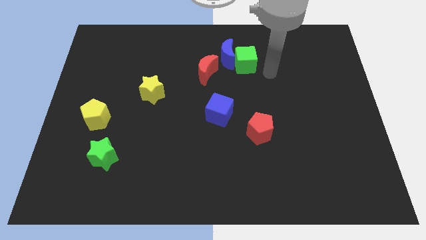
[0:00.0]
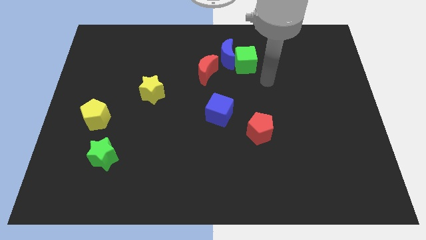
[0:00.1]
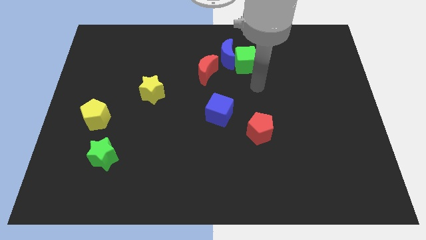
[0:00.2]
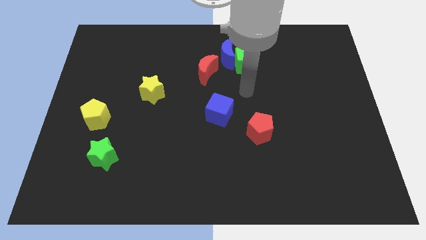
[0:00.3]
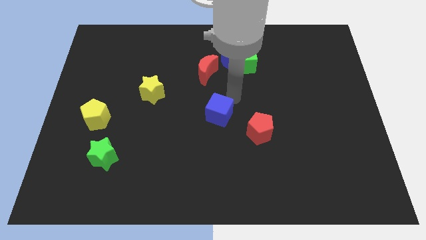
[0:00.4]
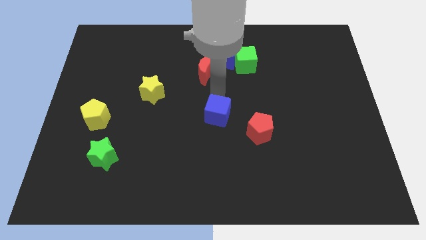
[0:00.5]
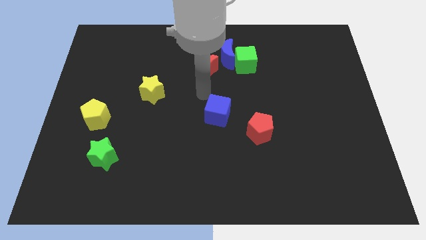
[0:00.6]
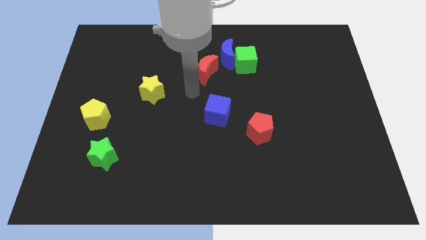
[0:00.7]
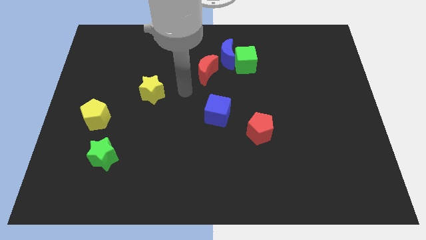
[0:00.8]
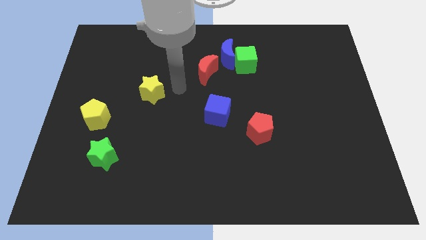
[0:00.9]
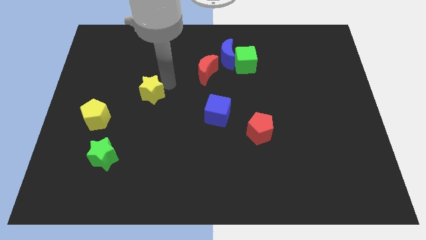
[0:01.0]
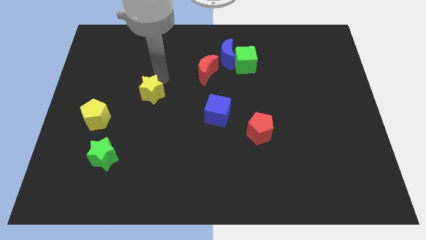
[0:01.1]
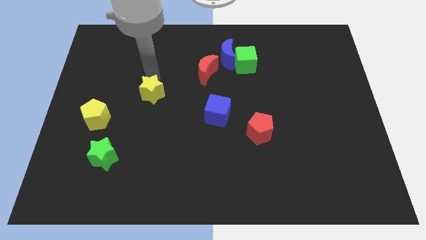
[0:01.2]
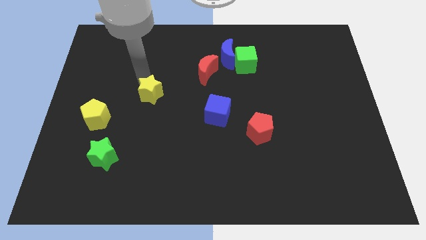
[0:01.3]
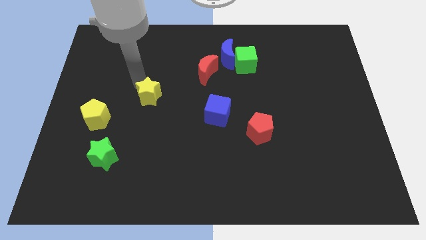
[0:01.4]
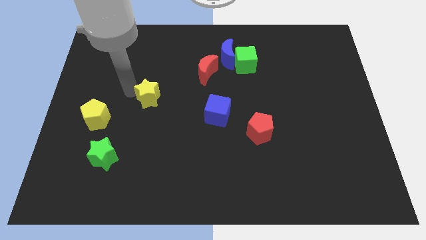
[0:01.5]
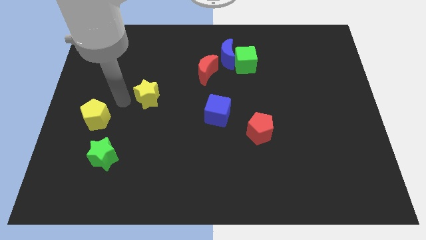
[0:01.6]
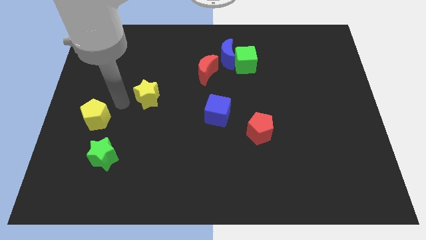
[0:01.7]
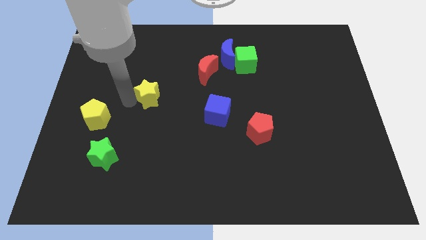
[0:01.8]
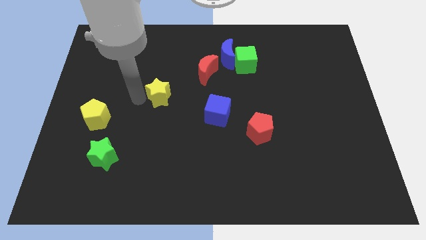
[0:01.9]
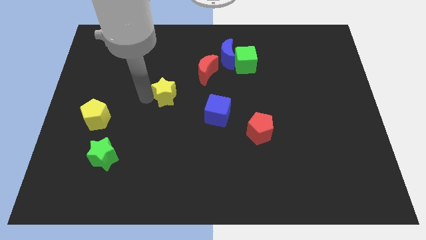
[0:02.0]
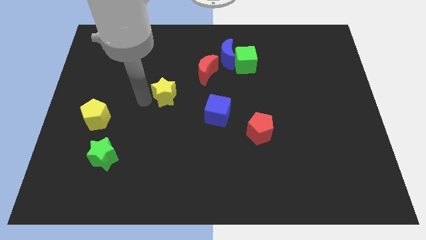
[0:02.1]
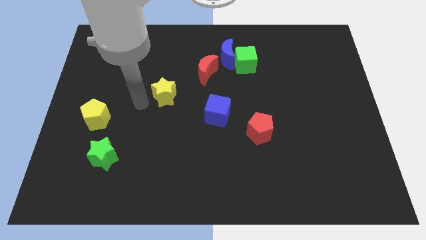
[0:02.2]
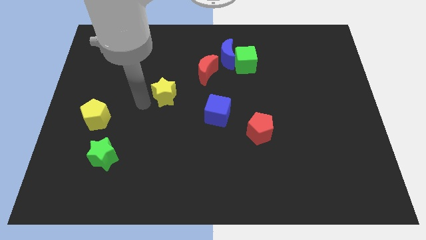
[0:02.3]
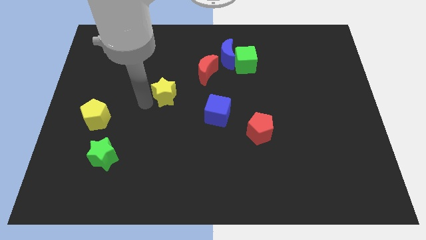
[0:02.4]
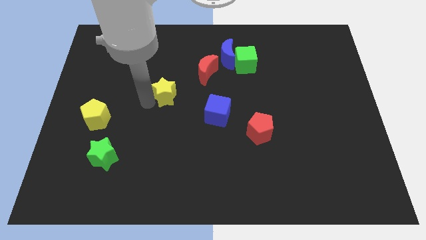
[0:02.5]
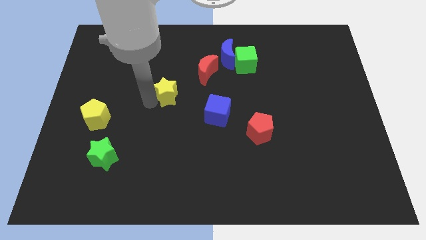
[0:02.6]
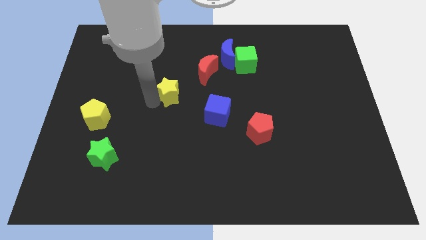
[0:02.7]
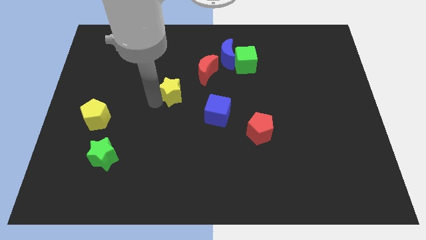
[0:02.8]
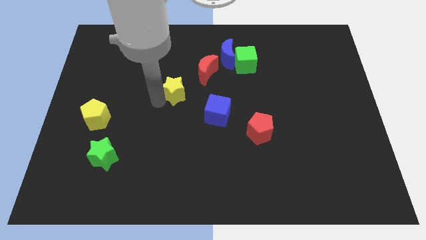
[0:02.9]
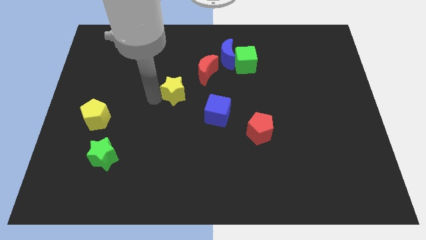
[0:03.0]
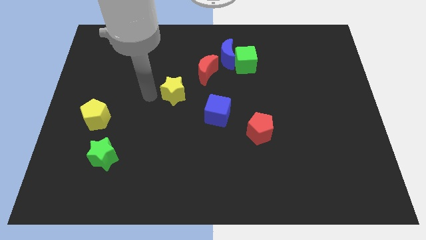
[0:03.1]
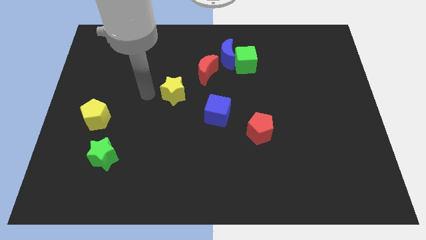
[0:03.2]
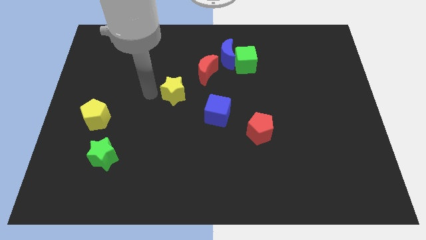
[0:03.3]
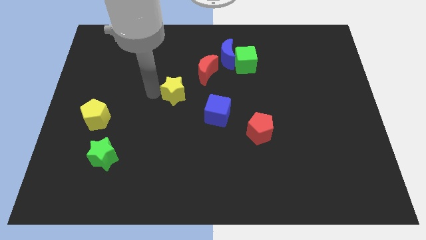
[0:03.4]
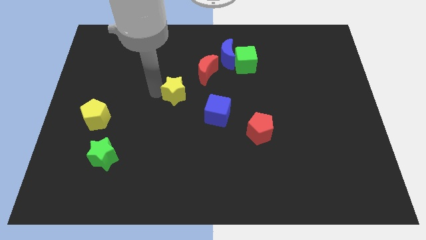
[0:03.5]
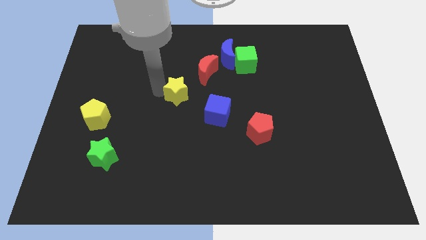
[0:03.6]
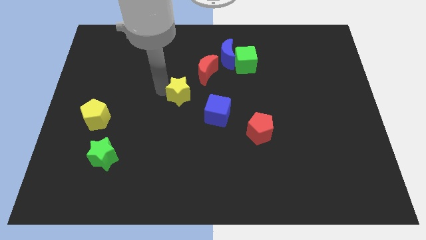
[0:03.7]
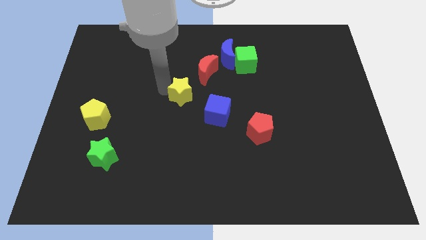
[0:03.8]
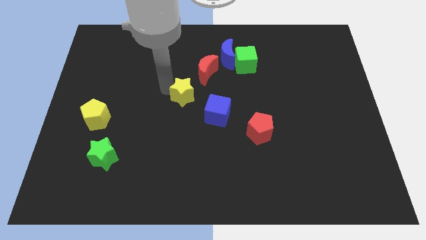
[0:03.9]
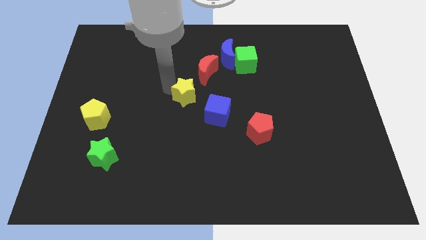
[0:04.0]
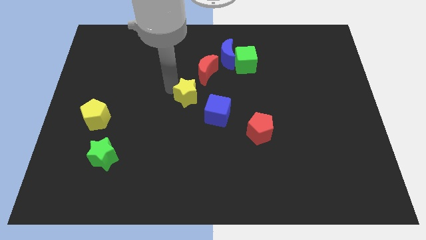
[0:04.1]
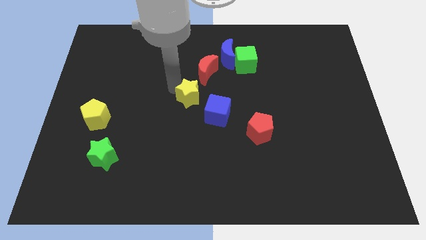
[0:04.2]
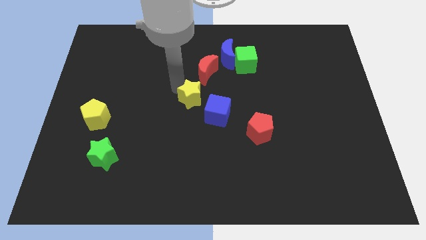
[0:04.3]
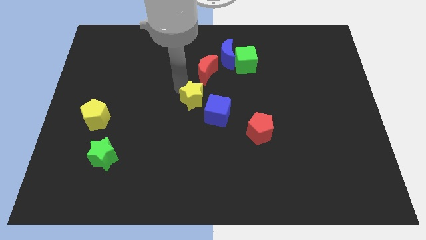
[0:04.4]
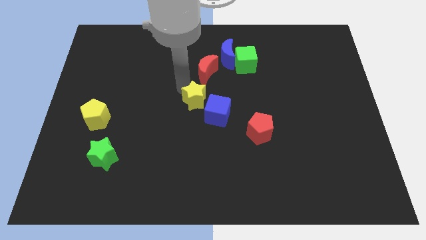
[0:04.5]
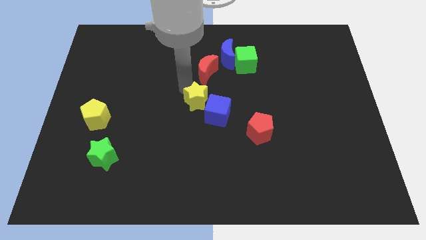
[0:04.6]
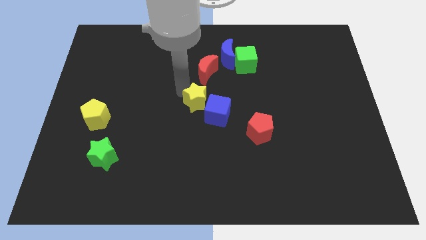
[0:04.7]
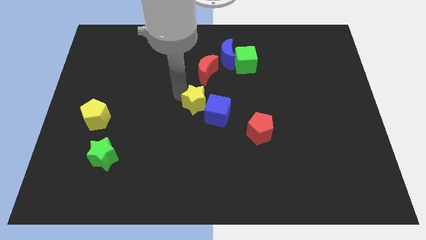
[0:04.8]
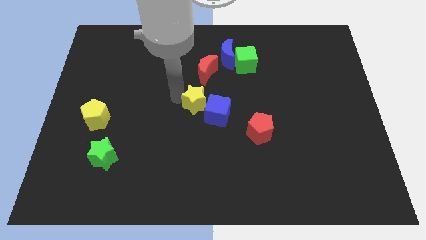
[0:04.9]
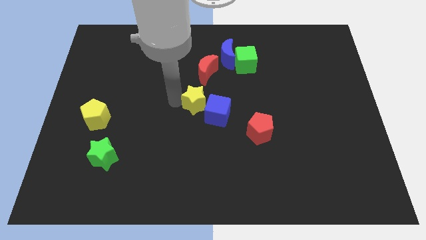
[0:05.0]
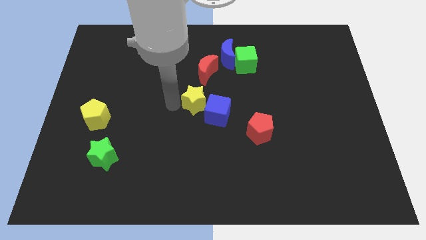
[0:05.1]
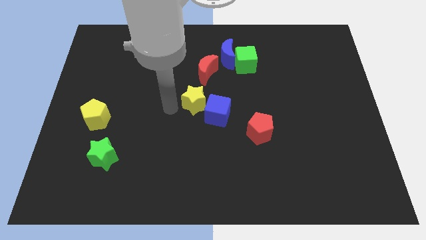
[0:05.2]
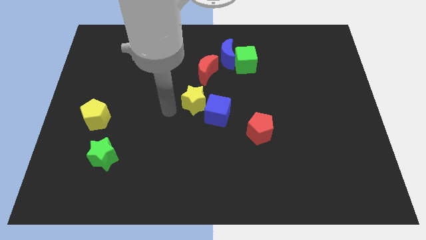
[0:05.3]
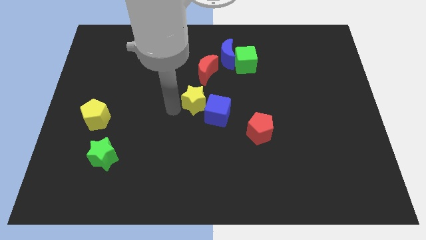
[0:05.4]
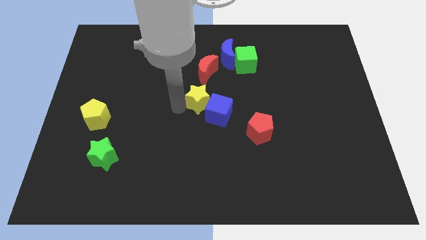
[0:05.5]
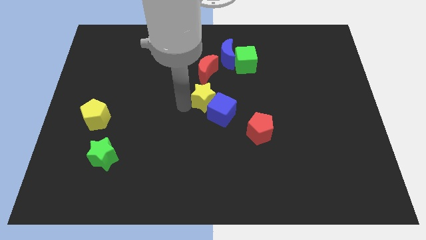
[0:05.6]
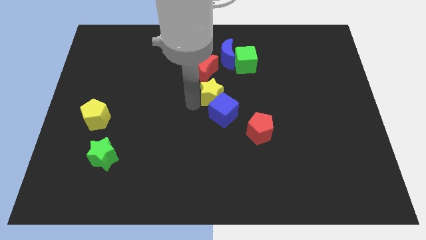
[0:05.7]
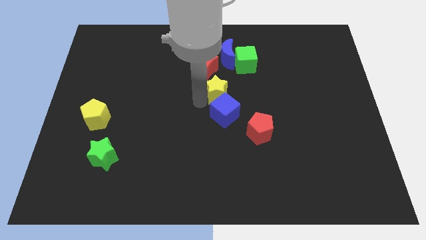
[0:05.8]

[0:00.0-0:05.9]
put the yellow star to the bottom left side of the green cube

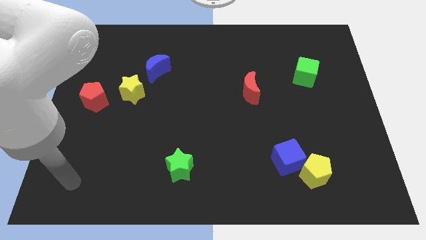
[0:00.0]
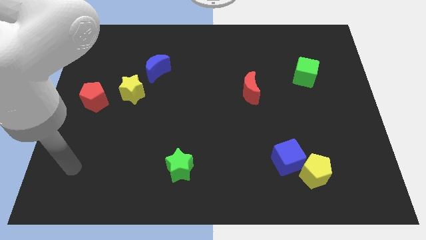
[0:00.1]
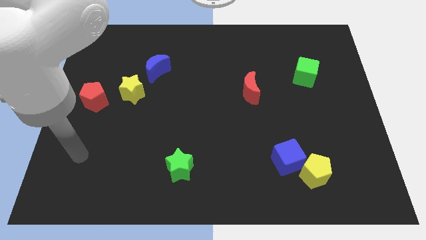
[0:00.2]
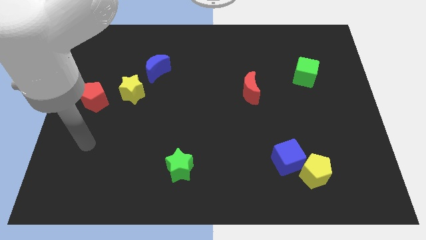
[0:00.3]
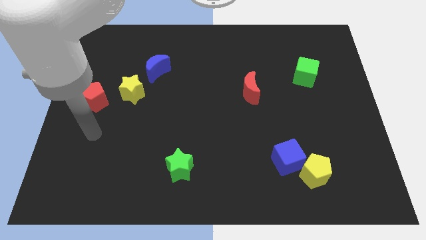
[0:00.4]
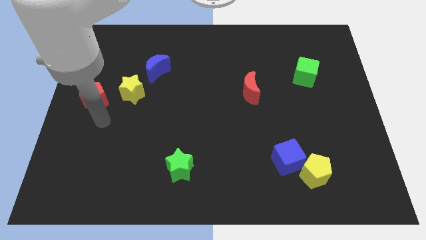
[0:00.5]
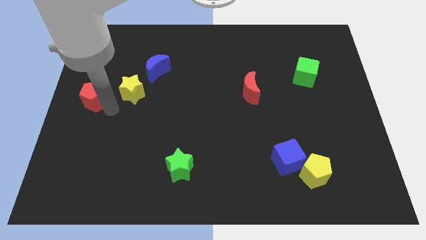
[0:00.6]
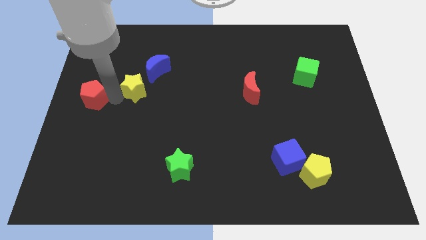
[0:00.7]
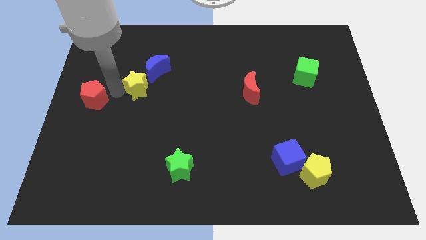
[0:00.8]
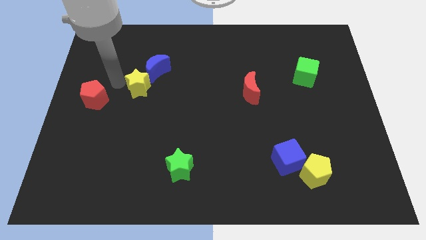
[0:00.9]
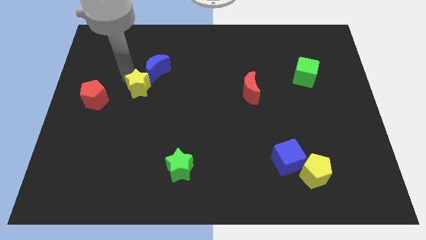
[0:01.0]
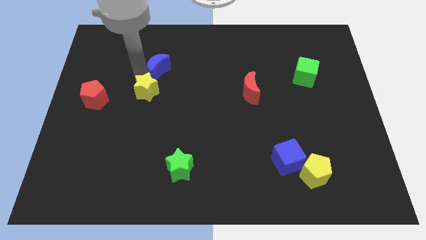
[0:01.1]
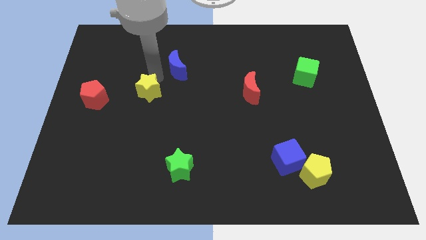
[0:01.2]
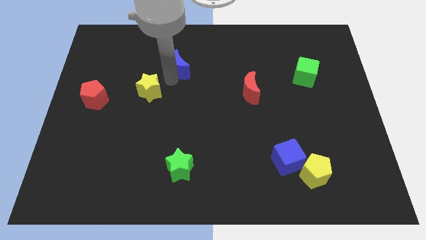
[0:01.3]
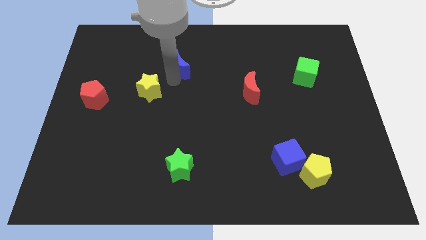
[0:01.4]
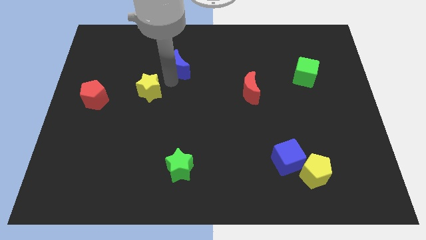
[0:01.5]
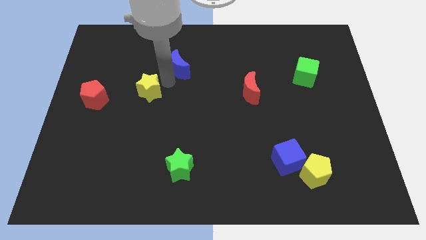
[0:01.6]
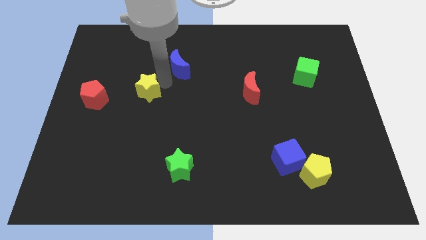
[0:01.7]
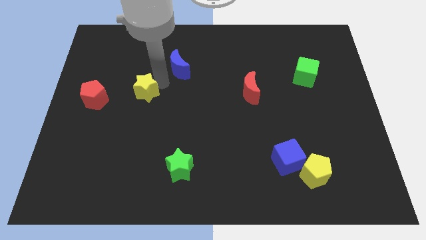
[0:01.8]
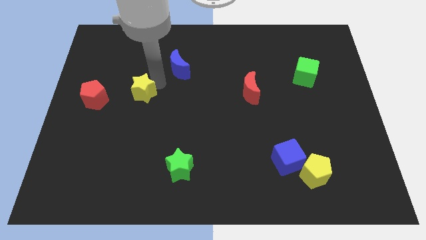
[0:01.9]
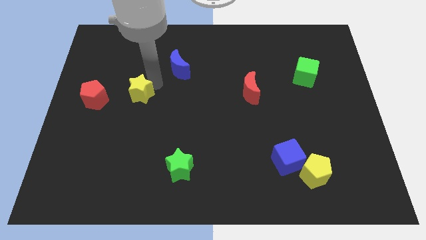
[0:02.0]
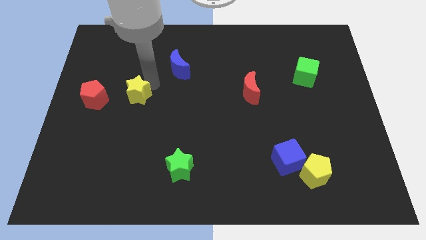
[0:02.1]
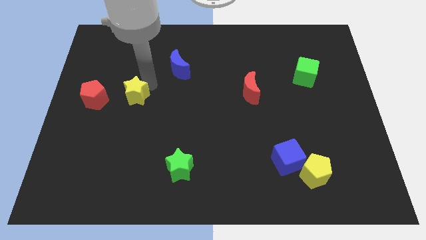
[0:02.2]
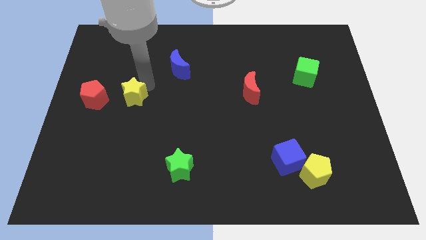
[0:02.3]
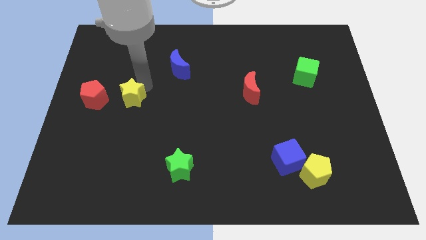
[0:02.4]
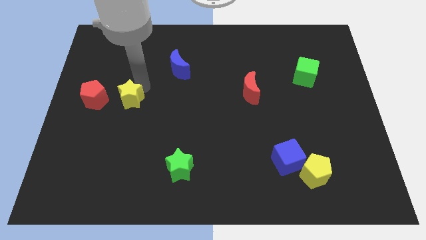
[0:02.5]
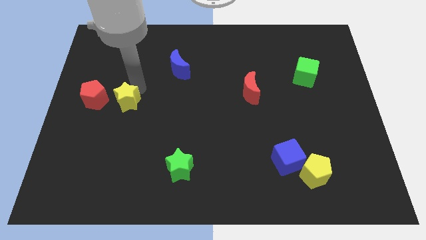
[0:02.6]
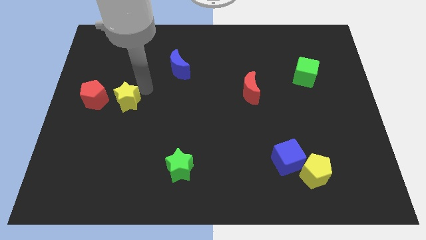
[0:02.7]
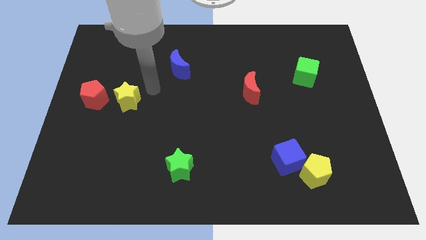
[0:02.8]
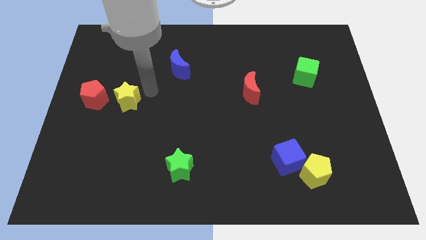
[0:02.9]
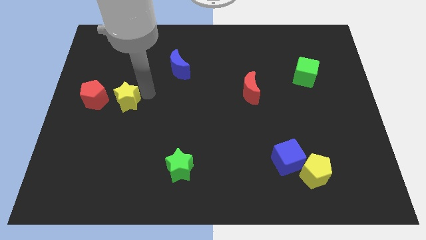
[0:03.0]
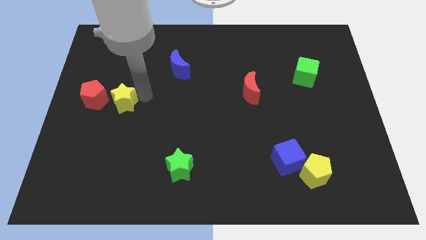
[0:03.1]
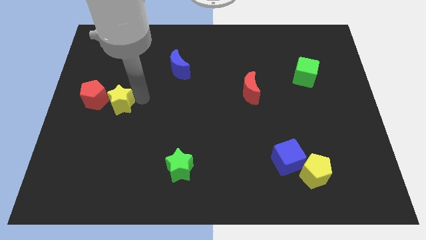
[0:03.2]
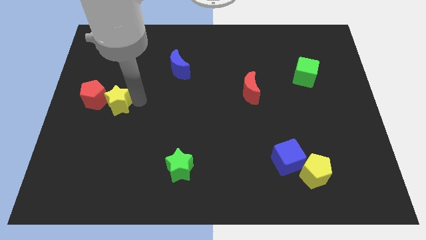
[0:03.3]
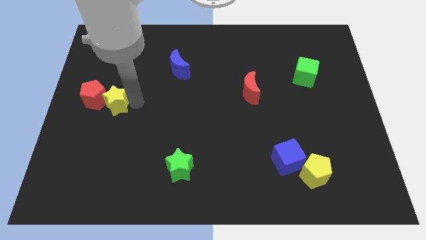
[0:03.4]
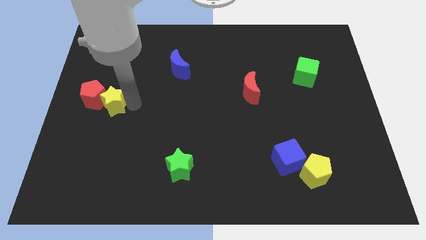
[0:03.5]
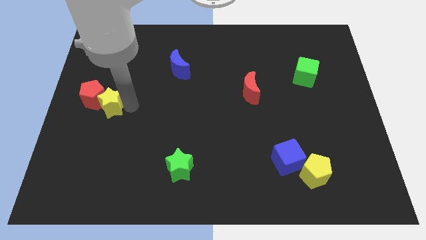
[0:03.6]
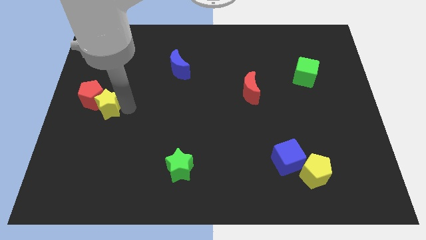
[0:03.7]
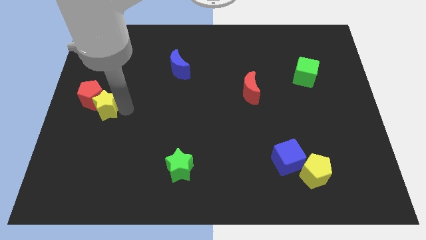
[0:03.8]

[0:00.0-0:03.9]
put the yellow star below the red pentagon
